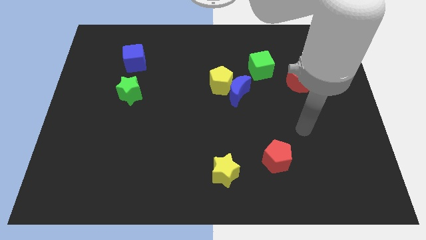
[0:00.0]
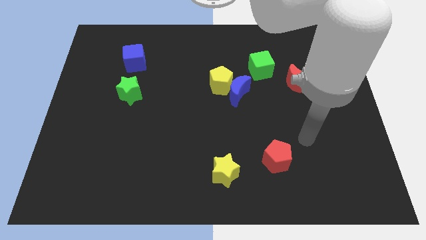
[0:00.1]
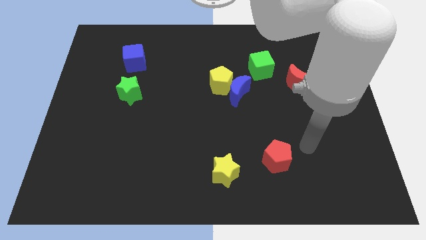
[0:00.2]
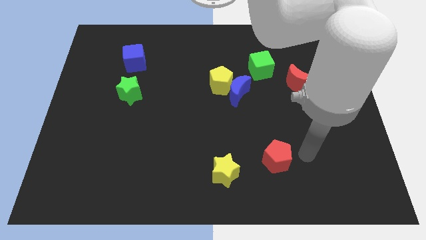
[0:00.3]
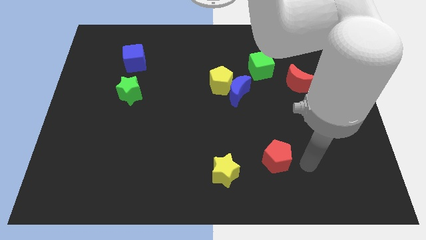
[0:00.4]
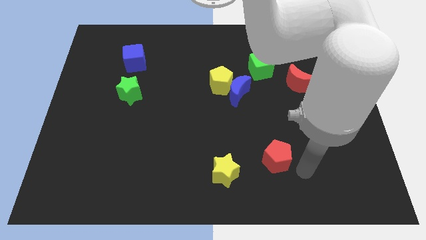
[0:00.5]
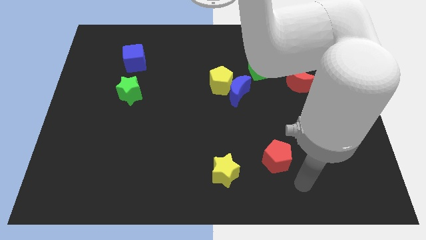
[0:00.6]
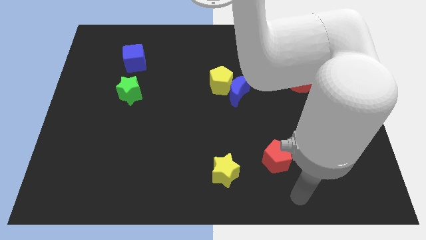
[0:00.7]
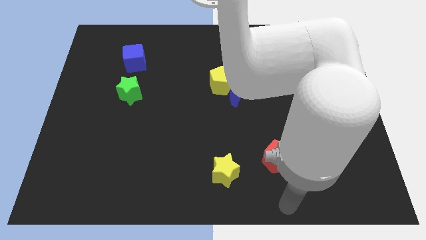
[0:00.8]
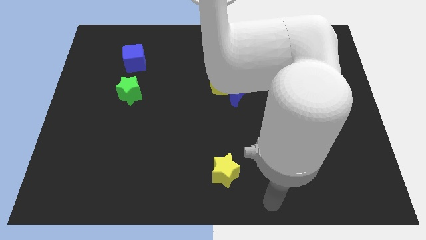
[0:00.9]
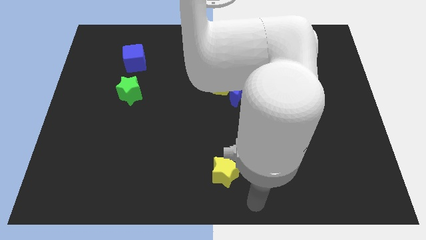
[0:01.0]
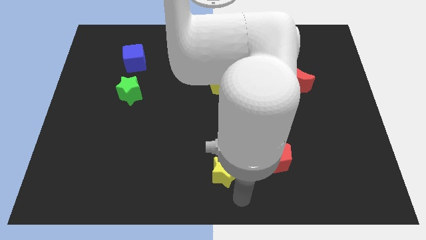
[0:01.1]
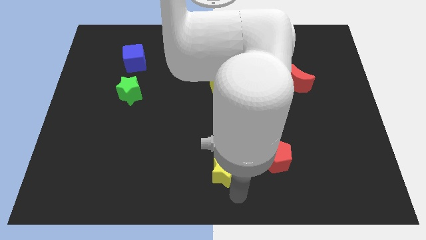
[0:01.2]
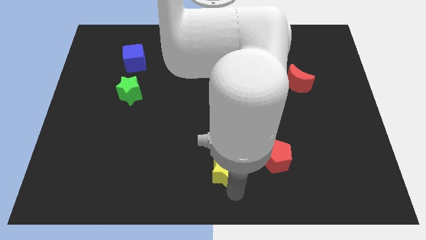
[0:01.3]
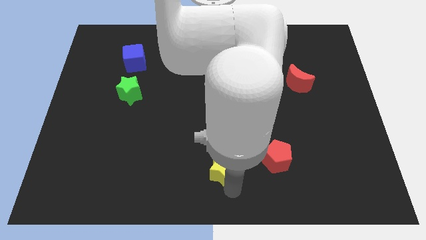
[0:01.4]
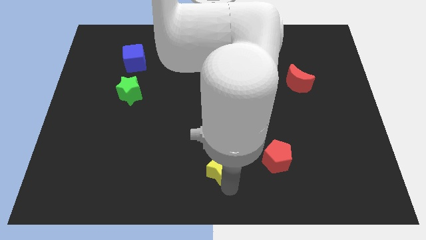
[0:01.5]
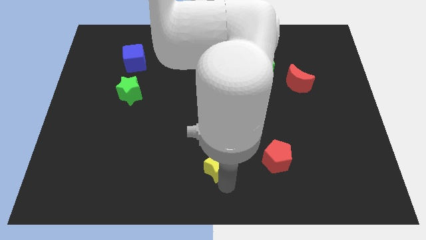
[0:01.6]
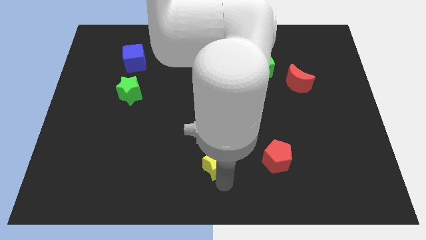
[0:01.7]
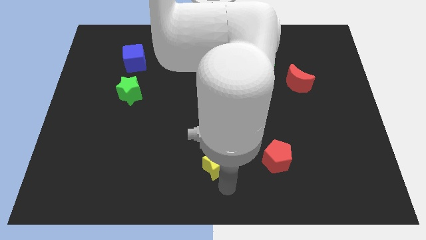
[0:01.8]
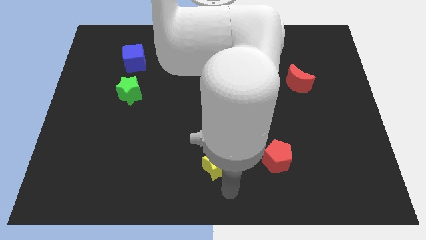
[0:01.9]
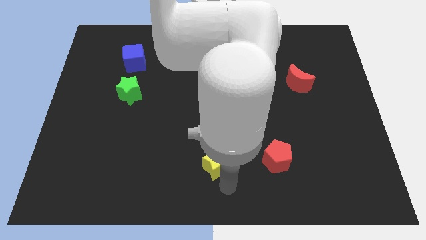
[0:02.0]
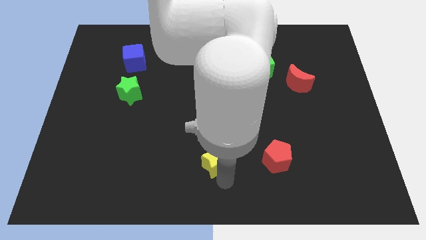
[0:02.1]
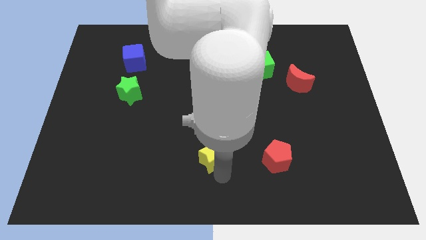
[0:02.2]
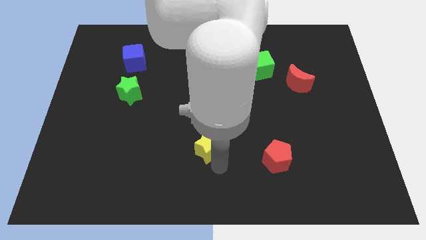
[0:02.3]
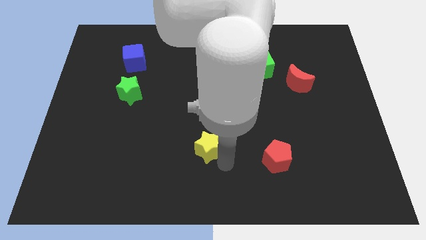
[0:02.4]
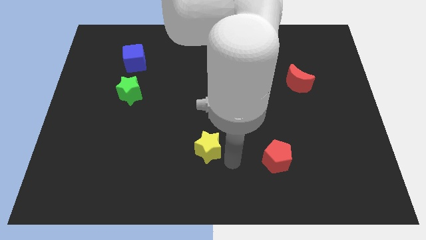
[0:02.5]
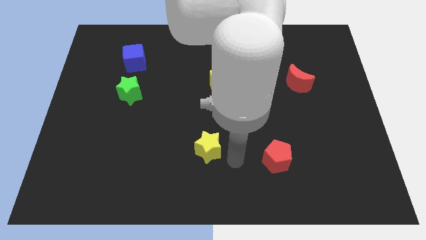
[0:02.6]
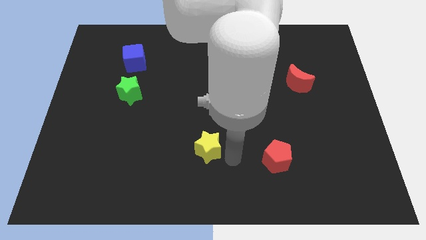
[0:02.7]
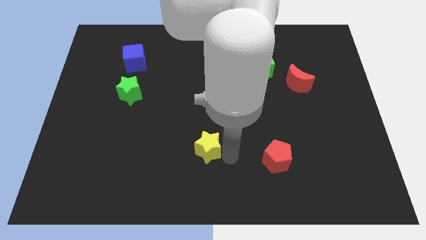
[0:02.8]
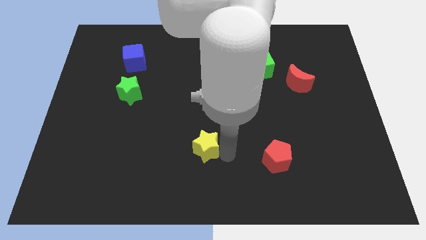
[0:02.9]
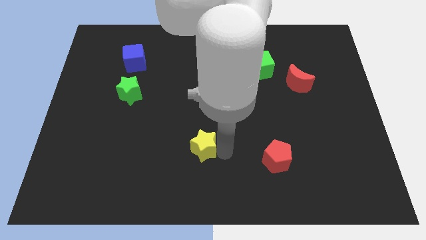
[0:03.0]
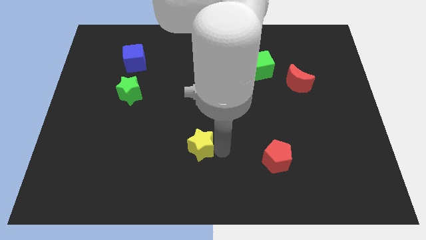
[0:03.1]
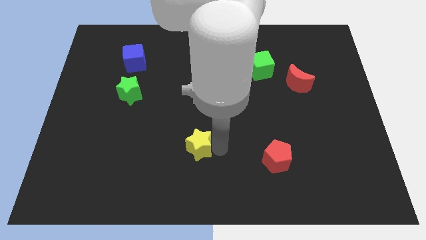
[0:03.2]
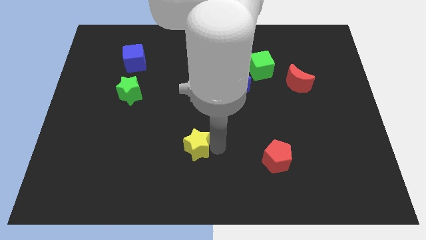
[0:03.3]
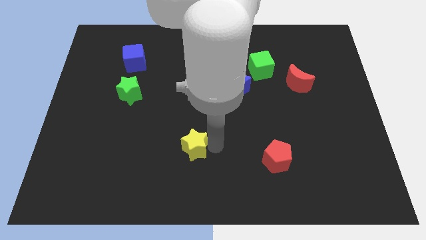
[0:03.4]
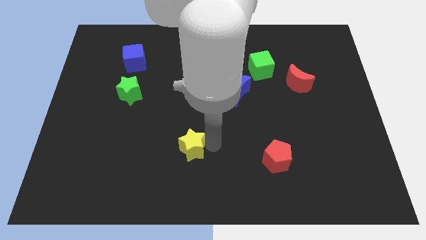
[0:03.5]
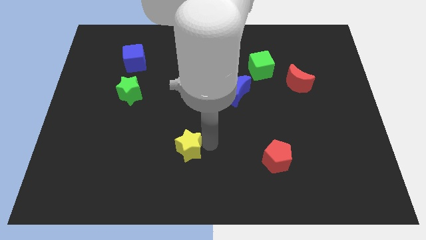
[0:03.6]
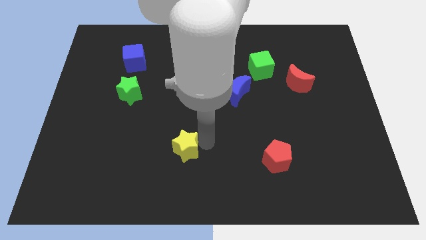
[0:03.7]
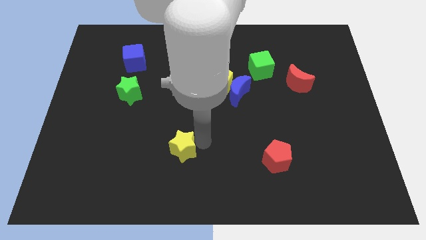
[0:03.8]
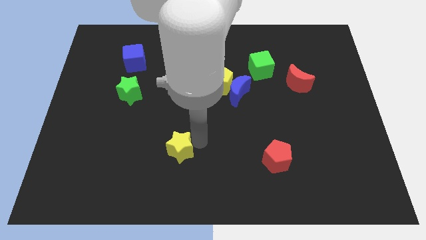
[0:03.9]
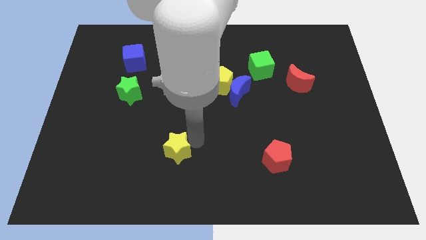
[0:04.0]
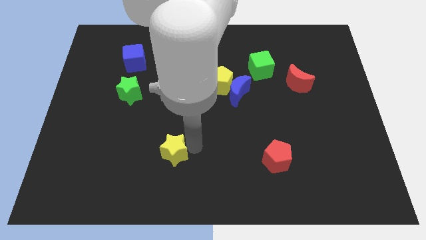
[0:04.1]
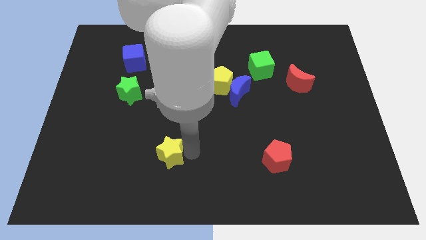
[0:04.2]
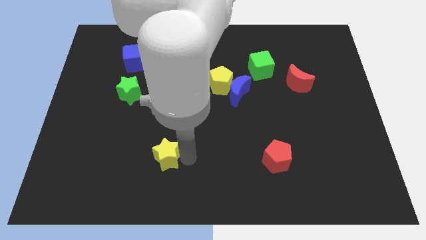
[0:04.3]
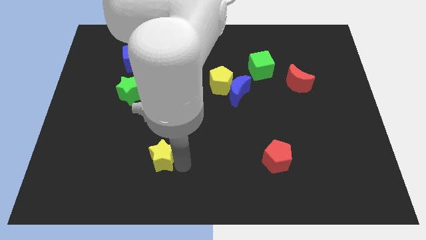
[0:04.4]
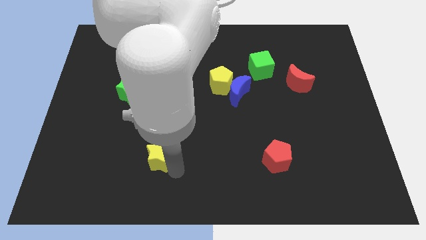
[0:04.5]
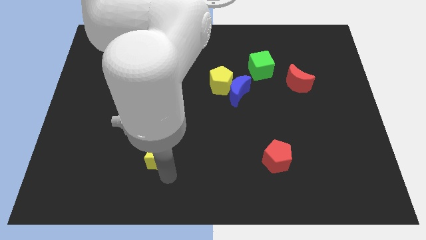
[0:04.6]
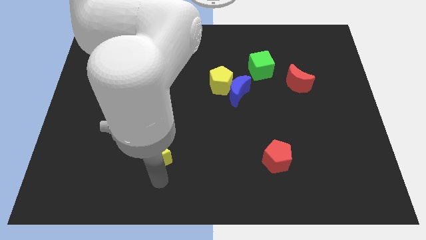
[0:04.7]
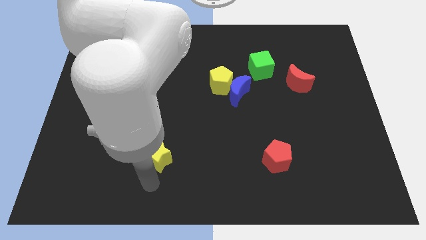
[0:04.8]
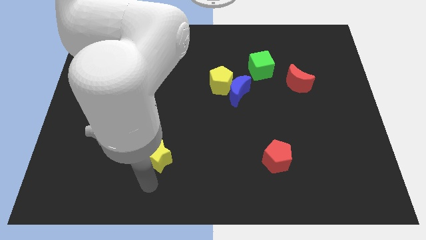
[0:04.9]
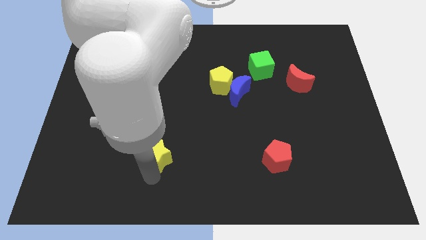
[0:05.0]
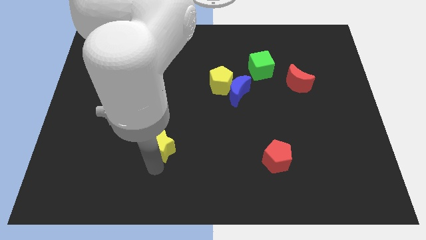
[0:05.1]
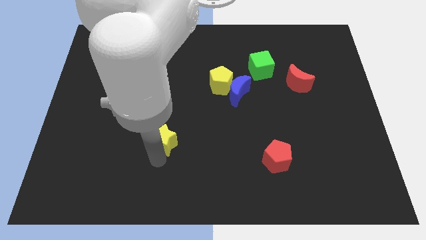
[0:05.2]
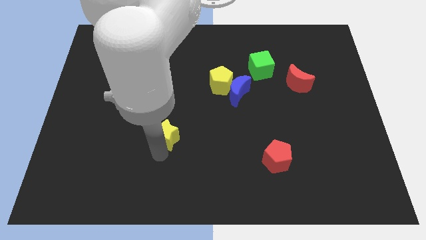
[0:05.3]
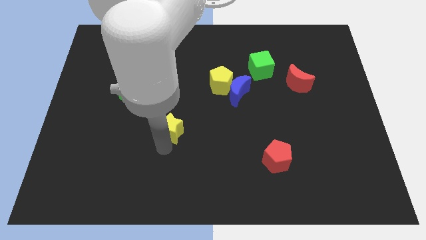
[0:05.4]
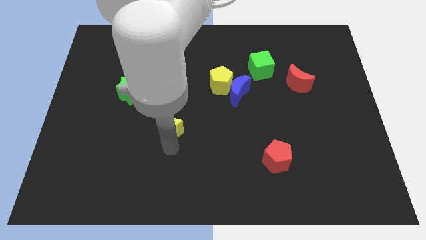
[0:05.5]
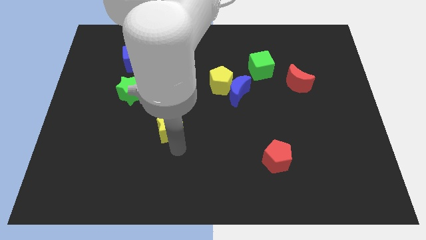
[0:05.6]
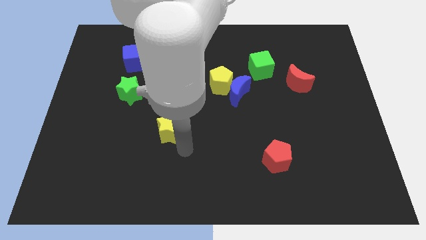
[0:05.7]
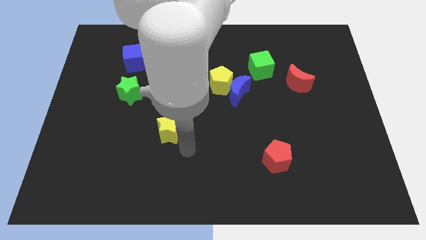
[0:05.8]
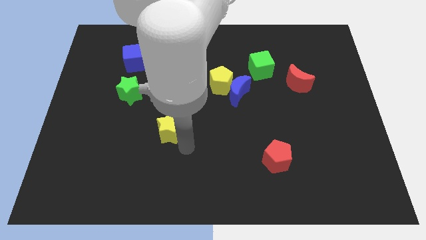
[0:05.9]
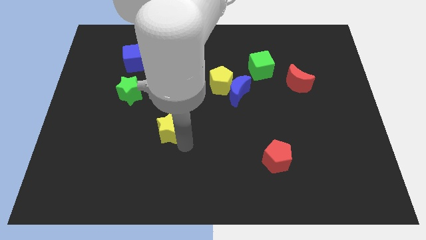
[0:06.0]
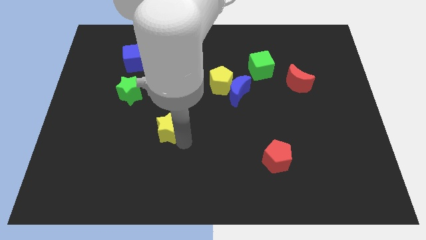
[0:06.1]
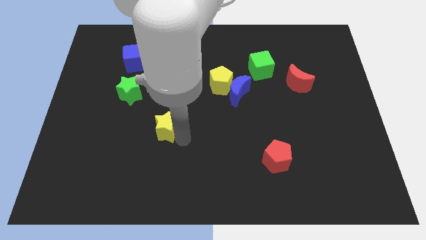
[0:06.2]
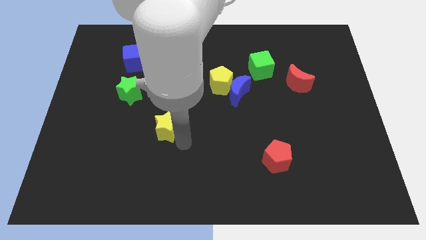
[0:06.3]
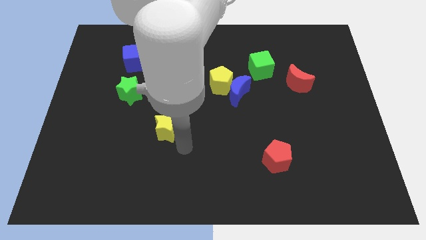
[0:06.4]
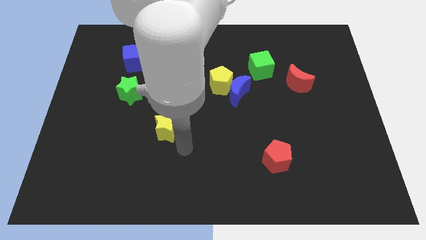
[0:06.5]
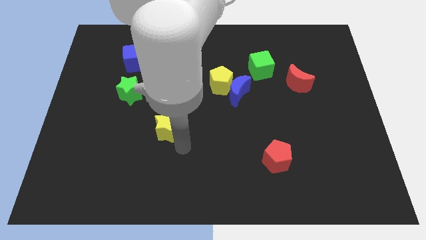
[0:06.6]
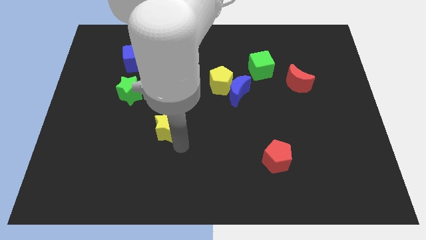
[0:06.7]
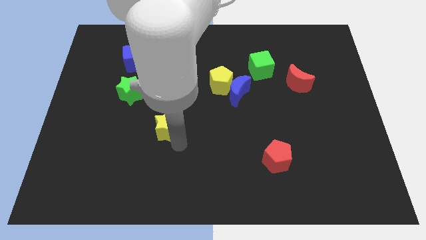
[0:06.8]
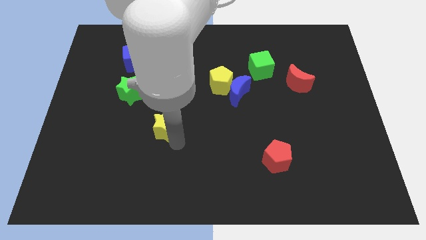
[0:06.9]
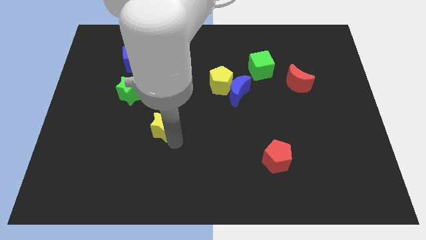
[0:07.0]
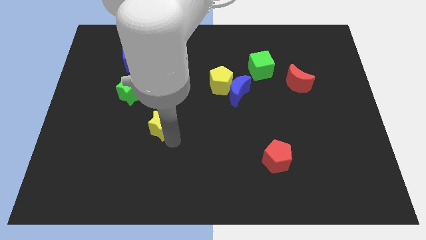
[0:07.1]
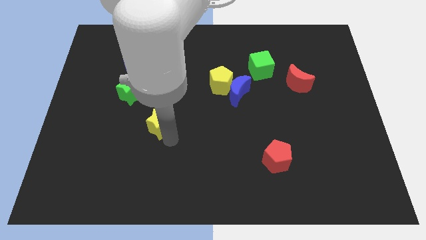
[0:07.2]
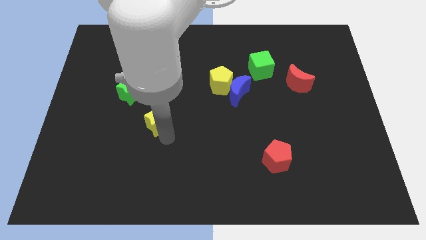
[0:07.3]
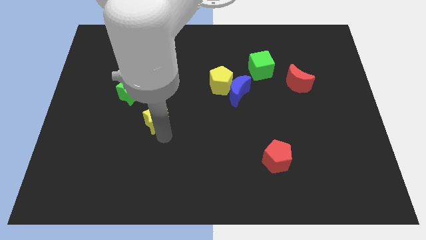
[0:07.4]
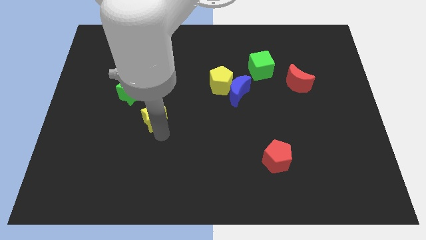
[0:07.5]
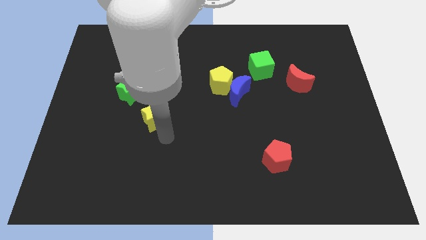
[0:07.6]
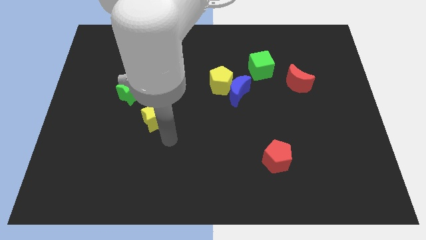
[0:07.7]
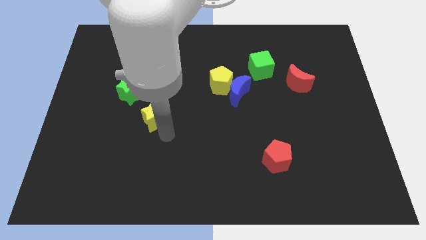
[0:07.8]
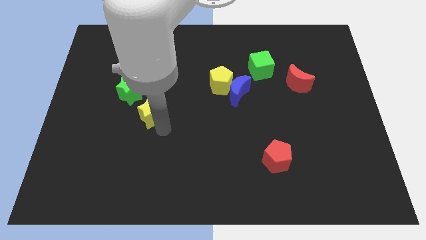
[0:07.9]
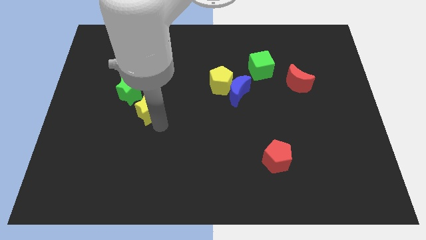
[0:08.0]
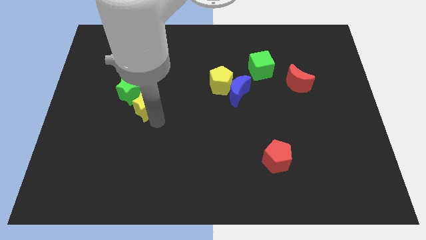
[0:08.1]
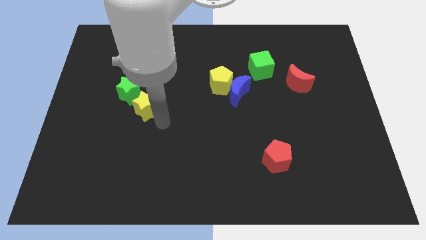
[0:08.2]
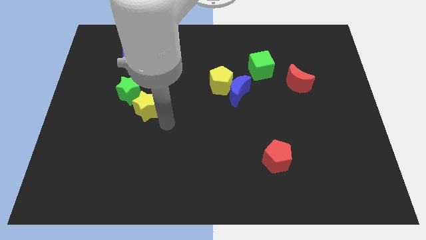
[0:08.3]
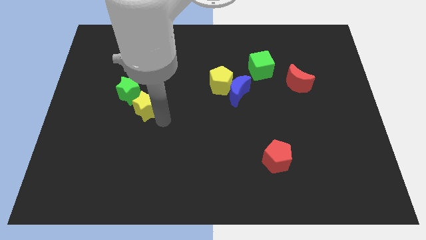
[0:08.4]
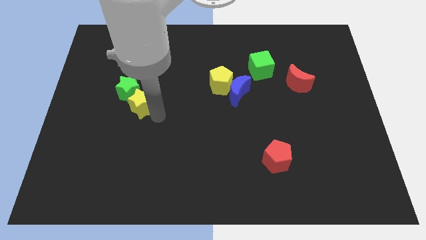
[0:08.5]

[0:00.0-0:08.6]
push the yellow star close to the green star
